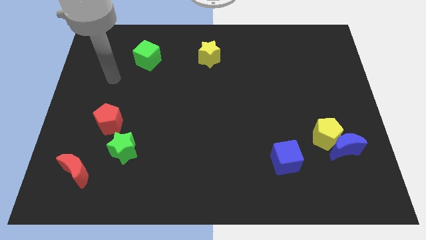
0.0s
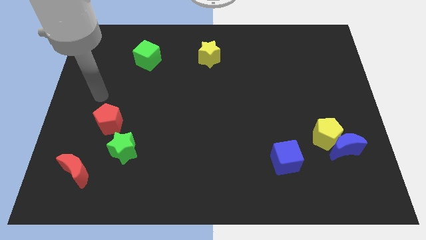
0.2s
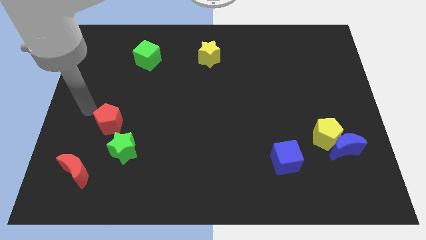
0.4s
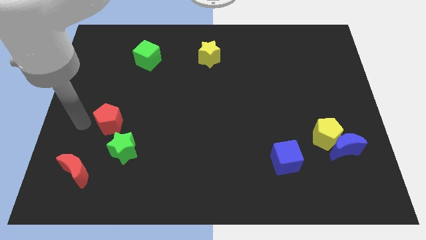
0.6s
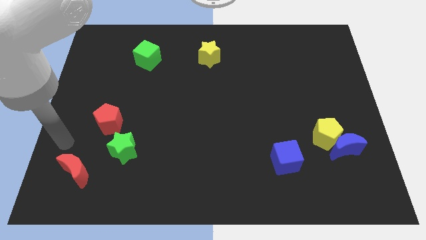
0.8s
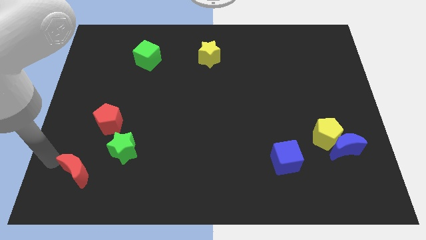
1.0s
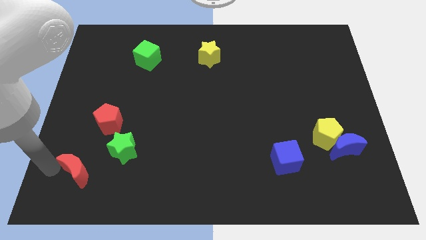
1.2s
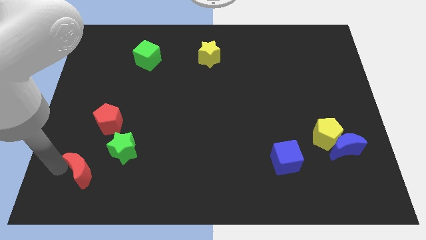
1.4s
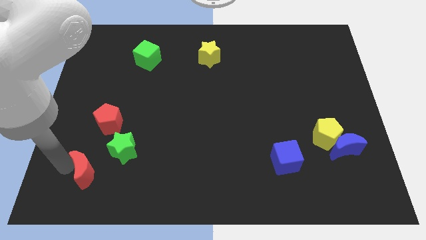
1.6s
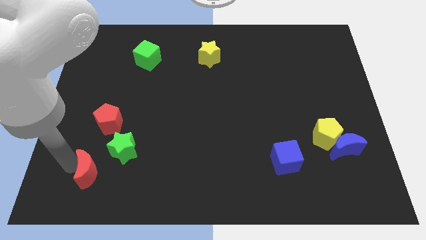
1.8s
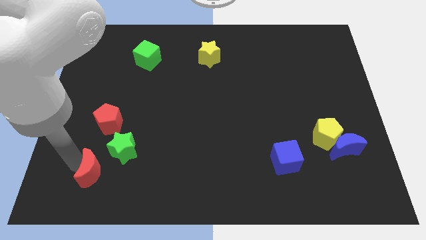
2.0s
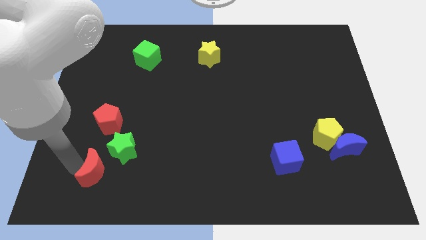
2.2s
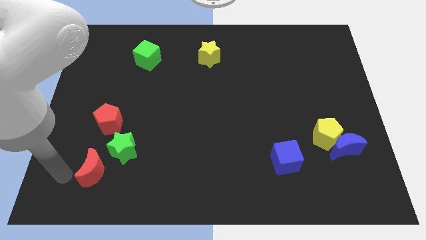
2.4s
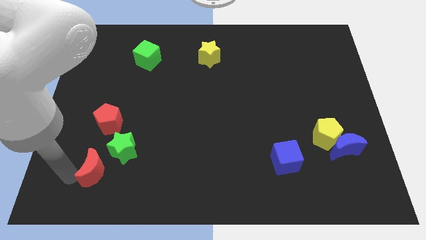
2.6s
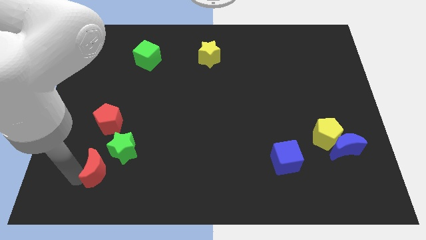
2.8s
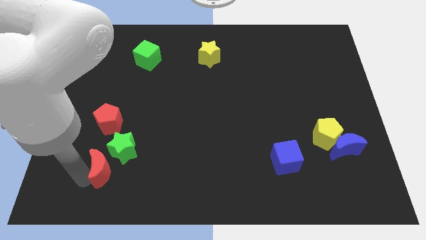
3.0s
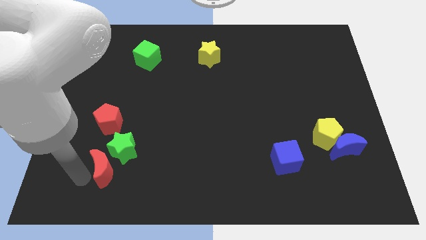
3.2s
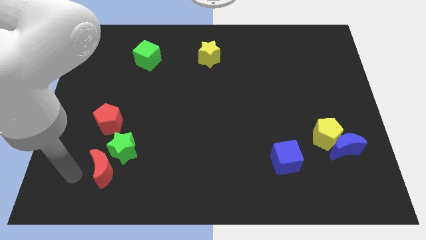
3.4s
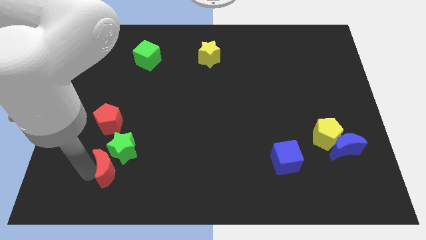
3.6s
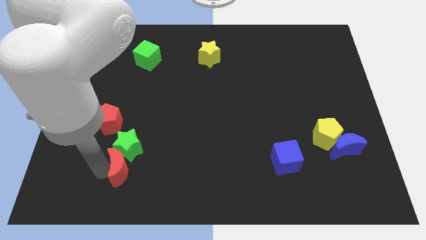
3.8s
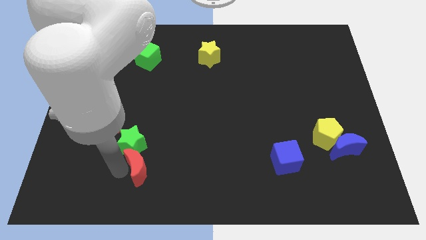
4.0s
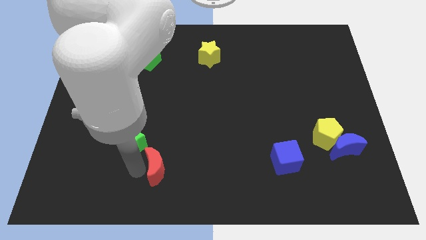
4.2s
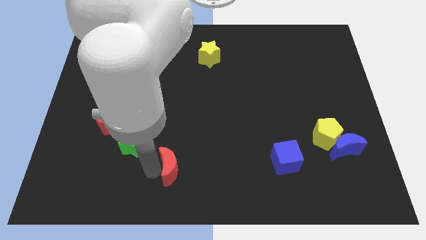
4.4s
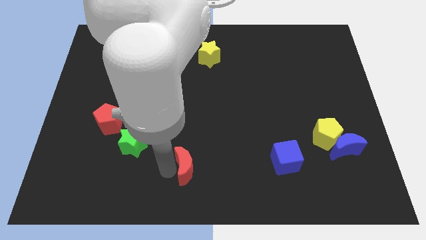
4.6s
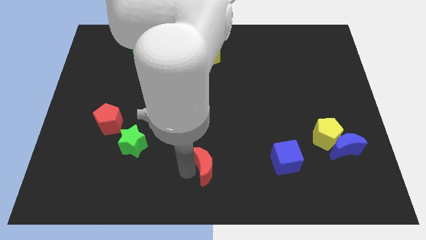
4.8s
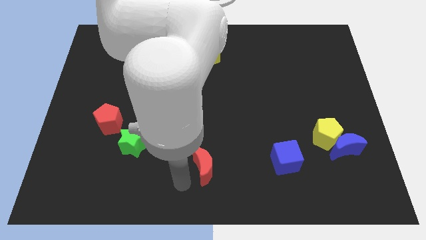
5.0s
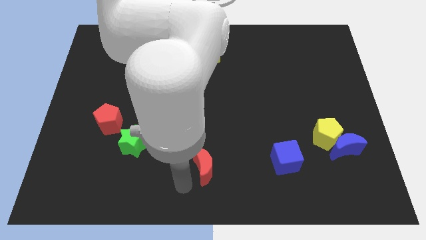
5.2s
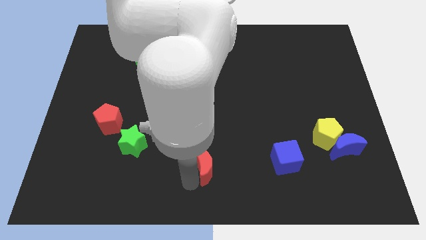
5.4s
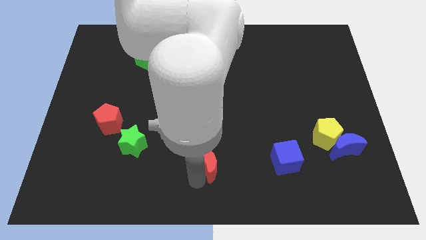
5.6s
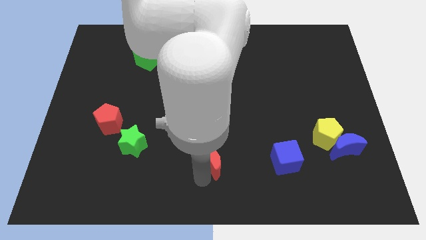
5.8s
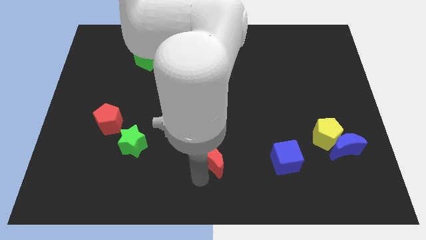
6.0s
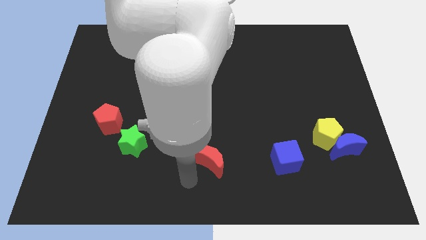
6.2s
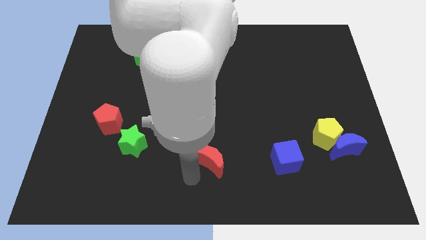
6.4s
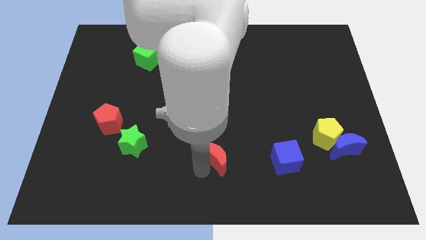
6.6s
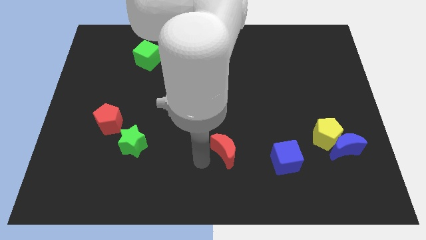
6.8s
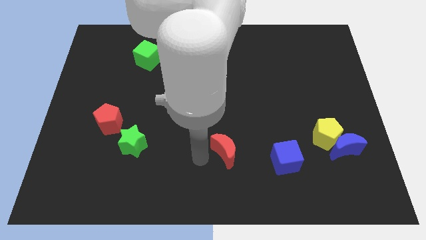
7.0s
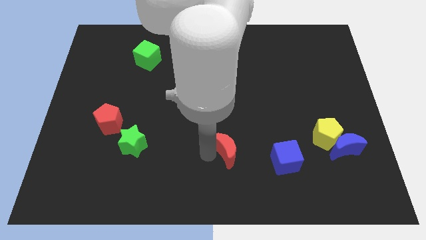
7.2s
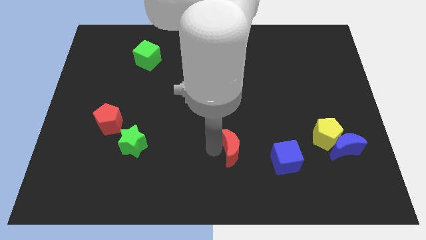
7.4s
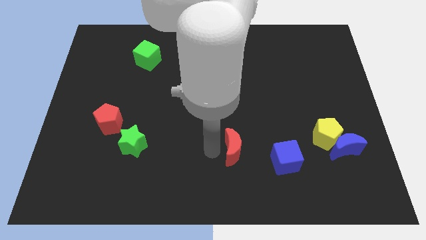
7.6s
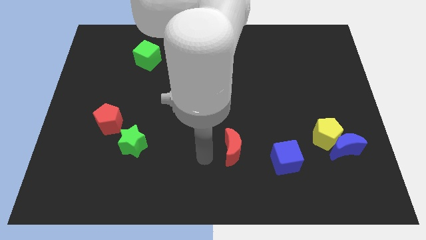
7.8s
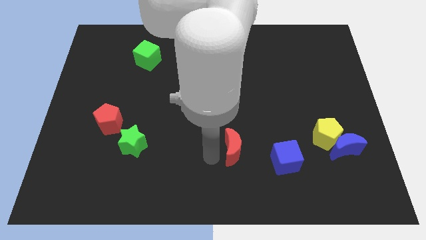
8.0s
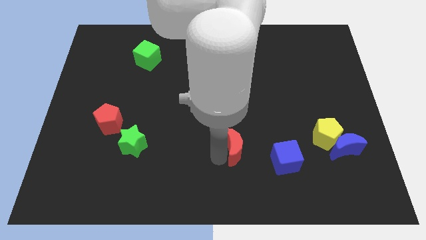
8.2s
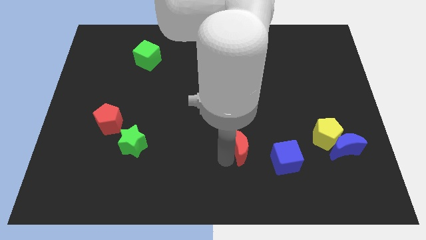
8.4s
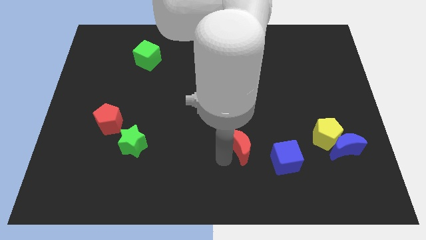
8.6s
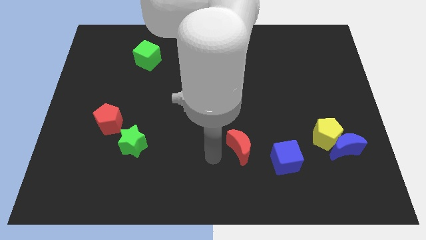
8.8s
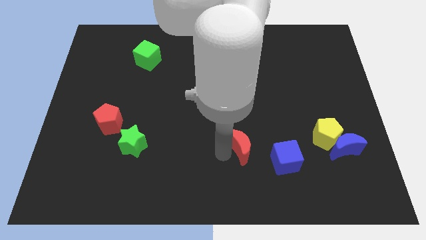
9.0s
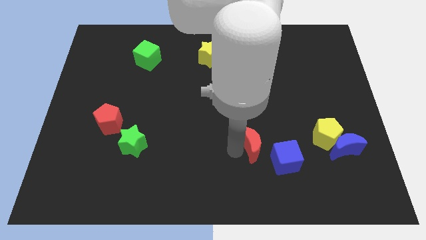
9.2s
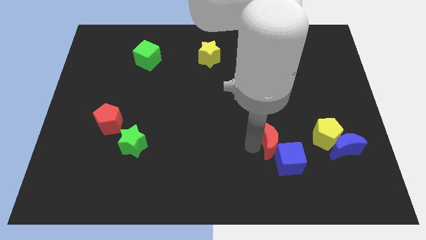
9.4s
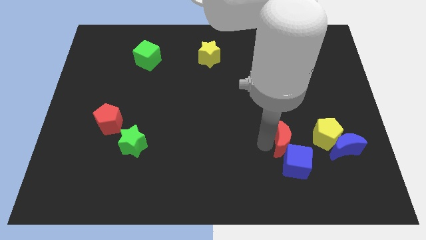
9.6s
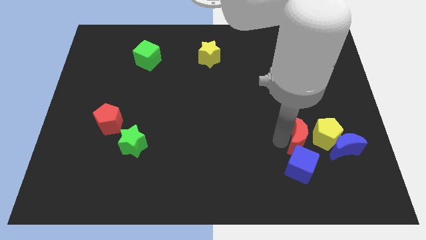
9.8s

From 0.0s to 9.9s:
put the red moon to the top right side of the blue cube

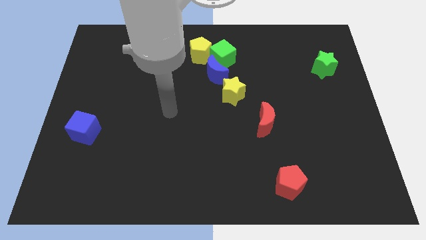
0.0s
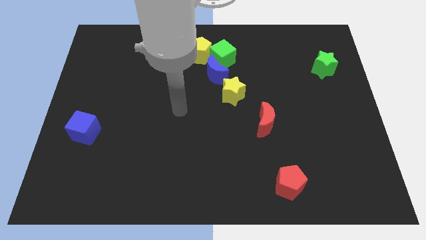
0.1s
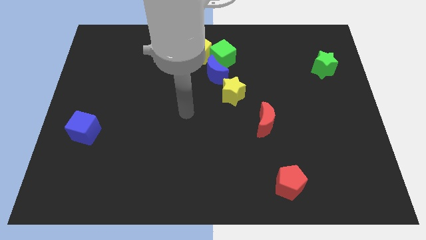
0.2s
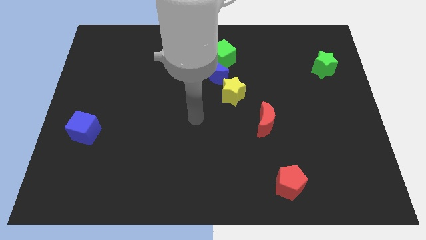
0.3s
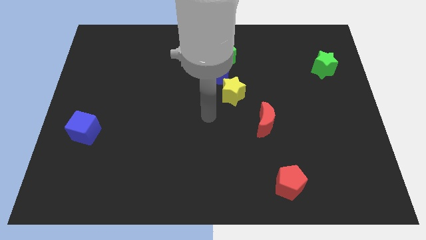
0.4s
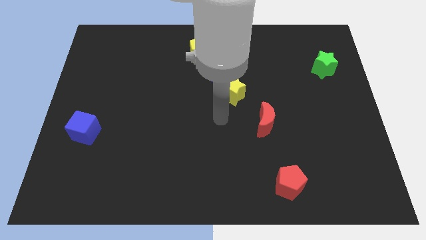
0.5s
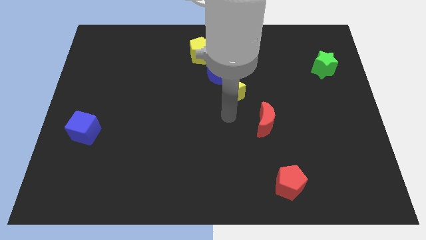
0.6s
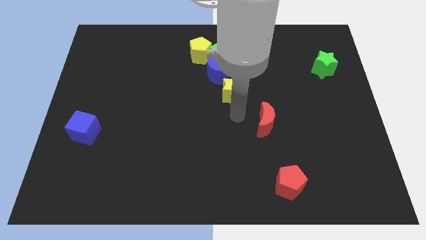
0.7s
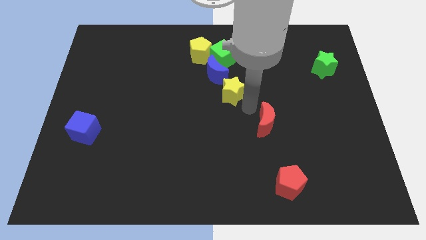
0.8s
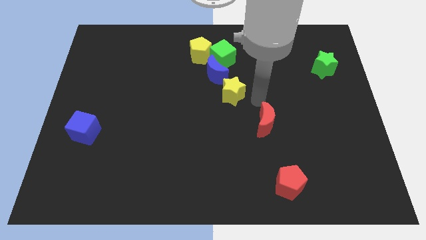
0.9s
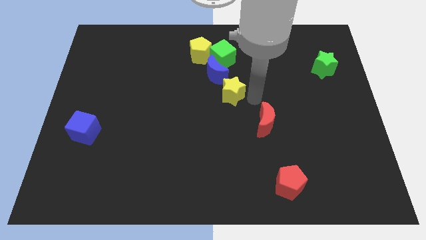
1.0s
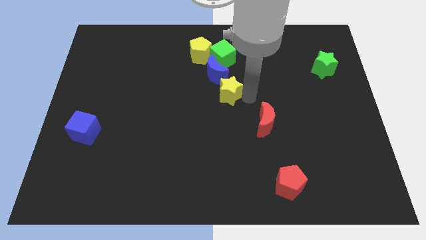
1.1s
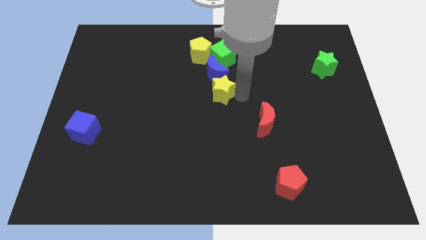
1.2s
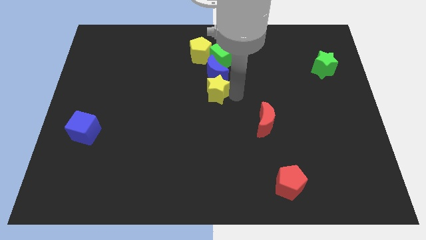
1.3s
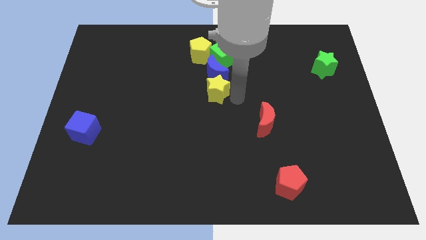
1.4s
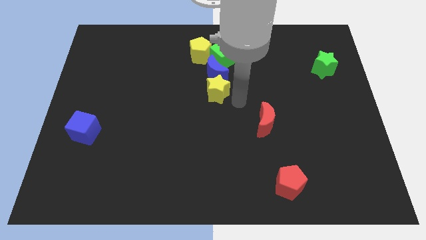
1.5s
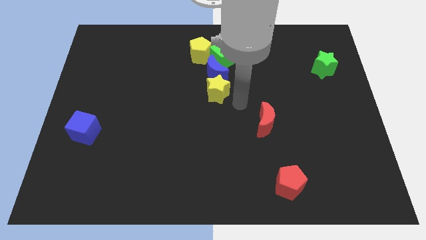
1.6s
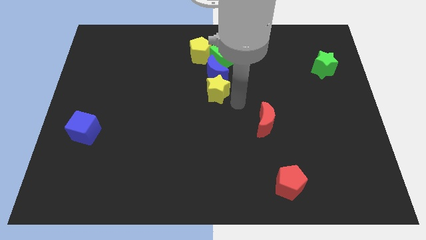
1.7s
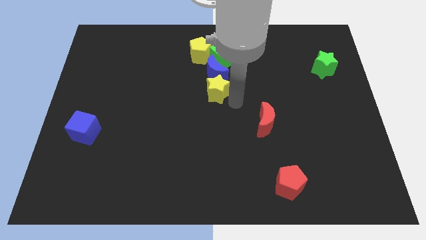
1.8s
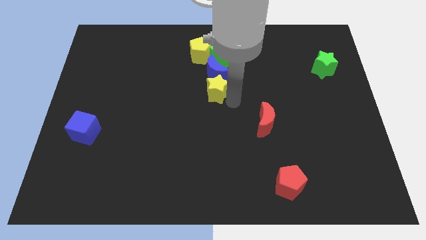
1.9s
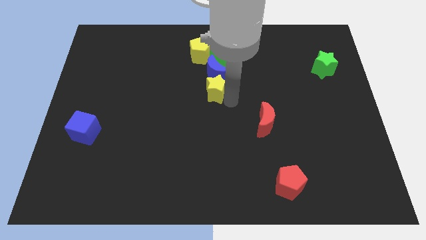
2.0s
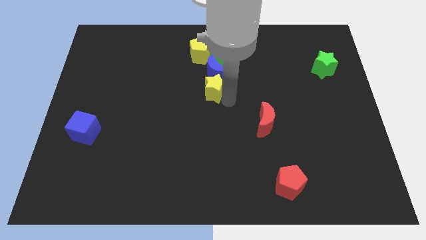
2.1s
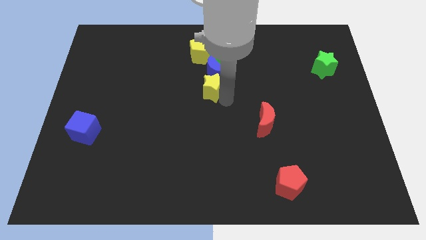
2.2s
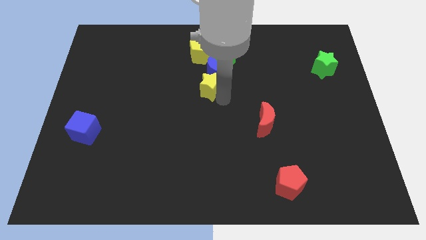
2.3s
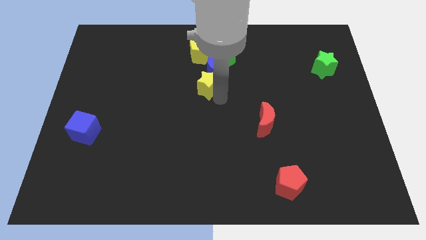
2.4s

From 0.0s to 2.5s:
move the yellow star to the bottom left side of the green cube
